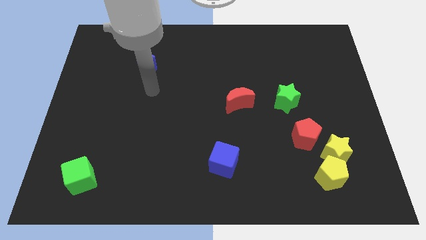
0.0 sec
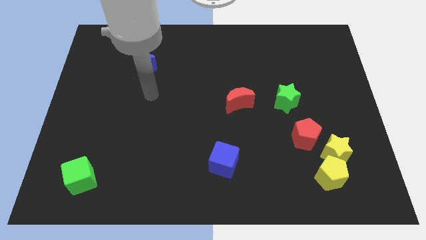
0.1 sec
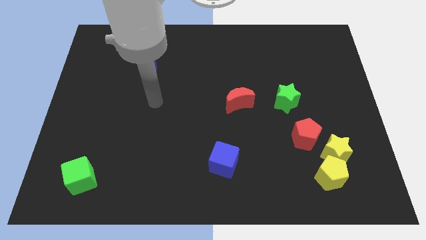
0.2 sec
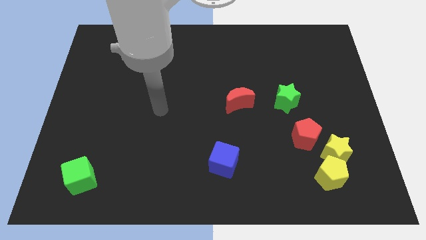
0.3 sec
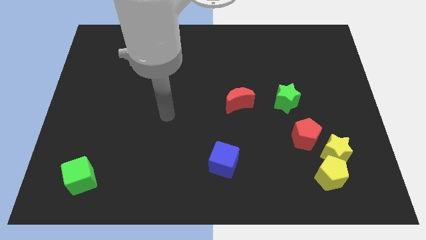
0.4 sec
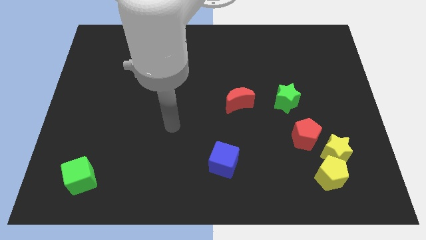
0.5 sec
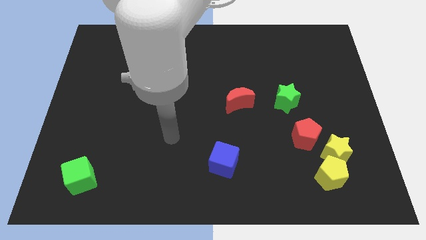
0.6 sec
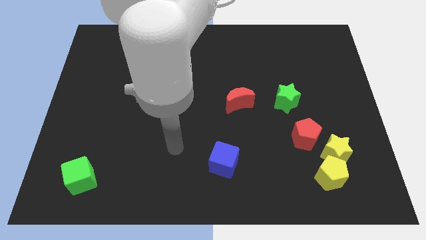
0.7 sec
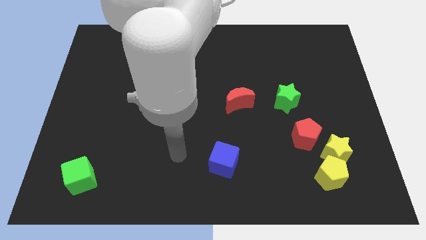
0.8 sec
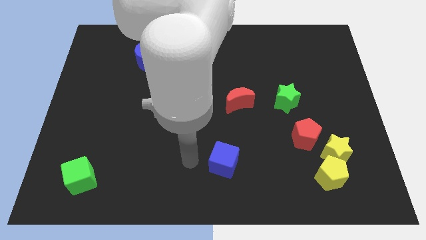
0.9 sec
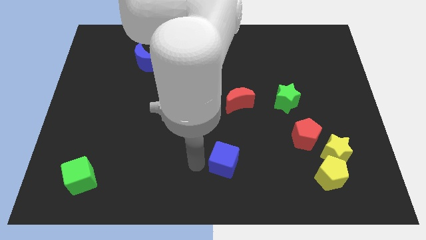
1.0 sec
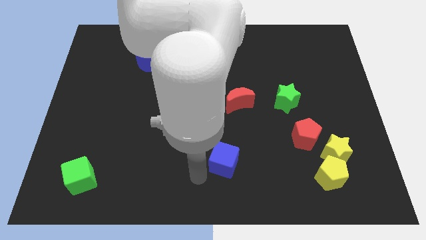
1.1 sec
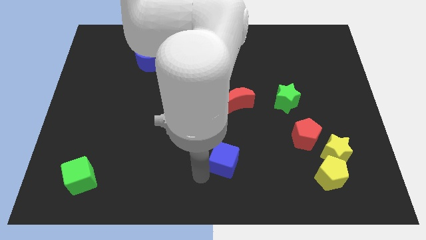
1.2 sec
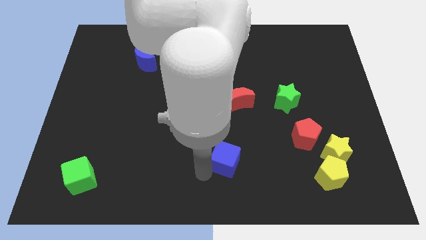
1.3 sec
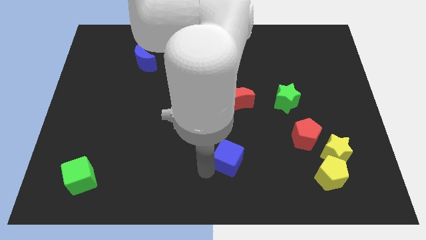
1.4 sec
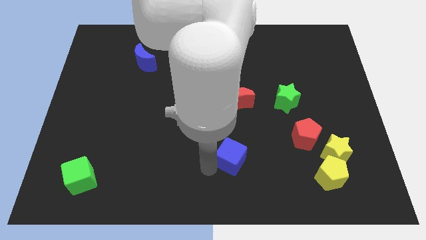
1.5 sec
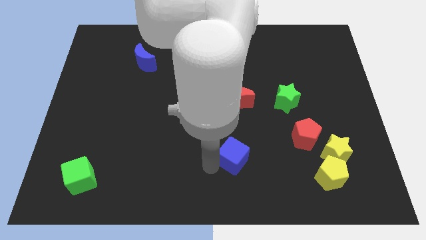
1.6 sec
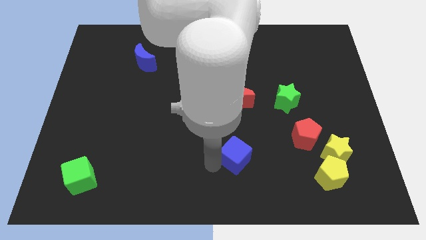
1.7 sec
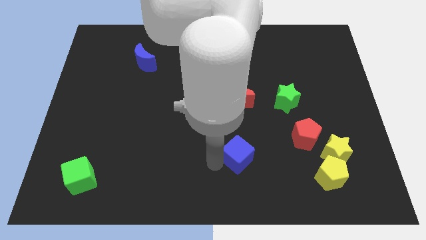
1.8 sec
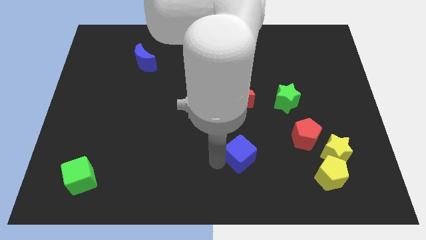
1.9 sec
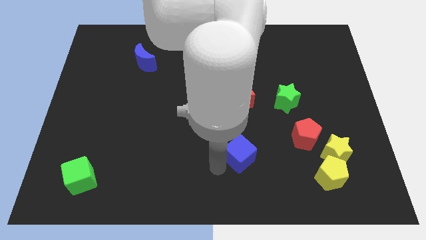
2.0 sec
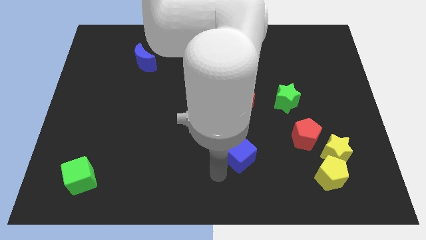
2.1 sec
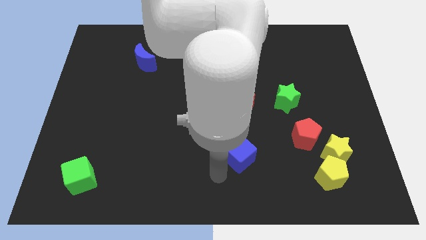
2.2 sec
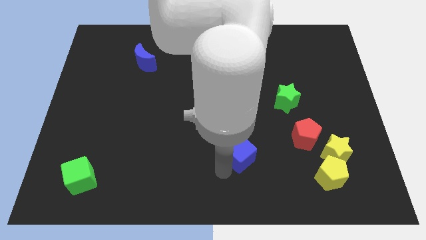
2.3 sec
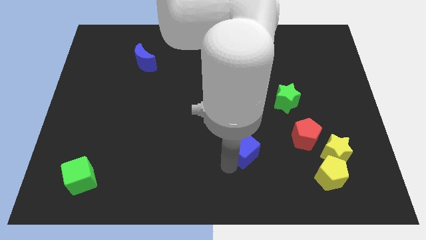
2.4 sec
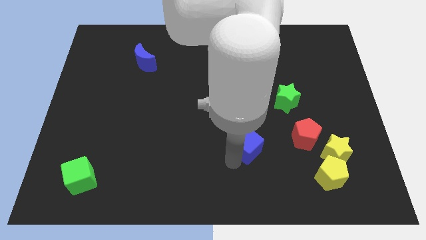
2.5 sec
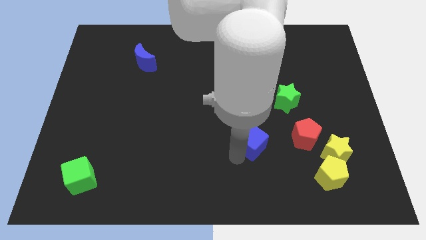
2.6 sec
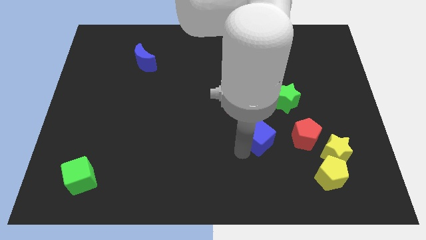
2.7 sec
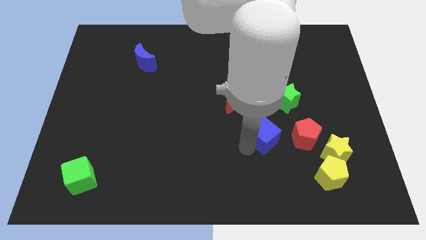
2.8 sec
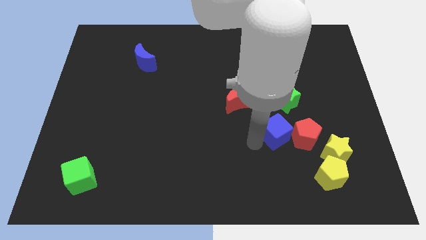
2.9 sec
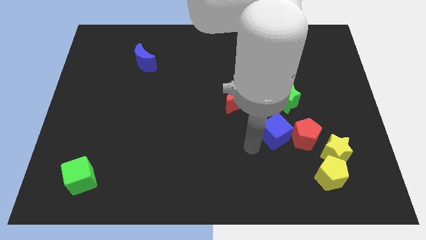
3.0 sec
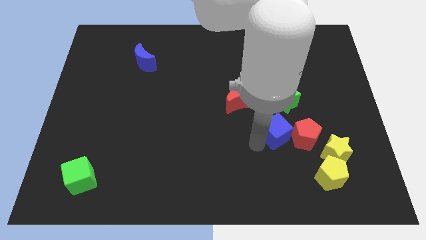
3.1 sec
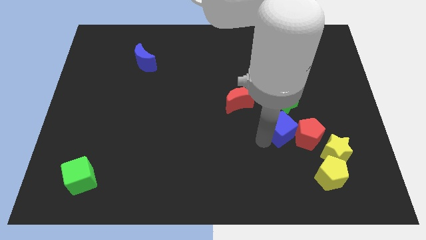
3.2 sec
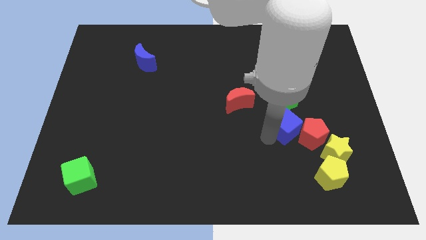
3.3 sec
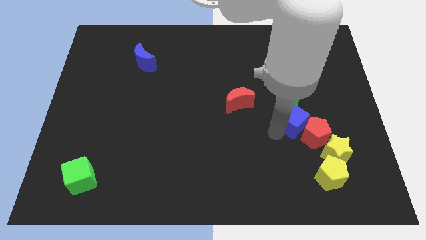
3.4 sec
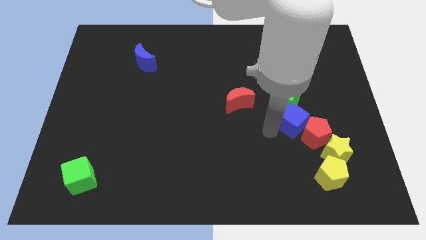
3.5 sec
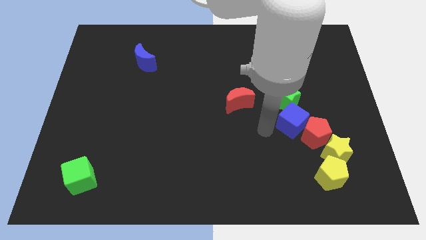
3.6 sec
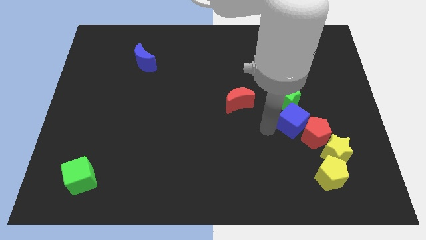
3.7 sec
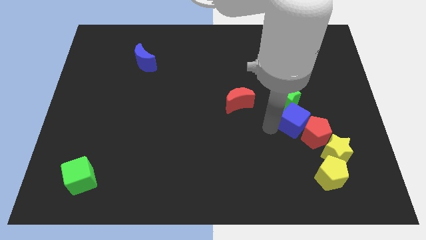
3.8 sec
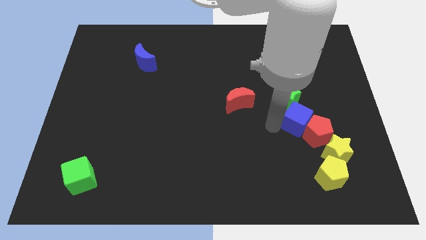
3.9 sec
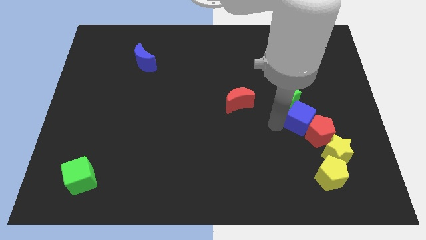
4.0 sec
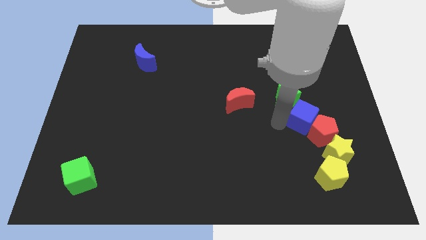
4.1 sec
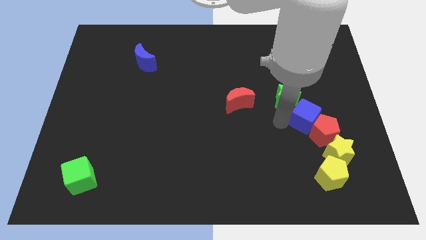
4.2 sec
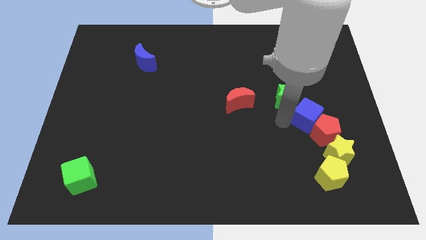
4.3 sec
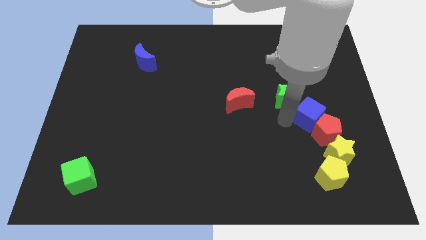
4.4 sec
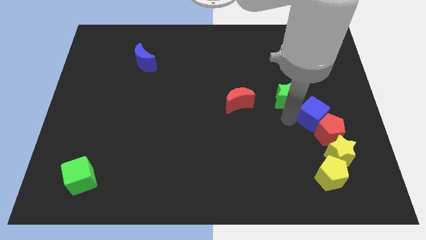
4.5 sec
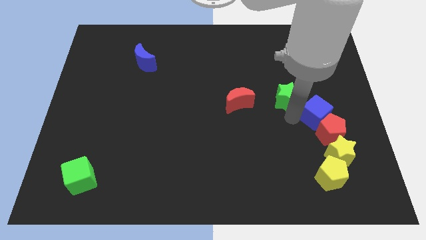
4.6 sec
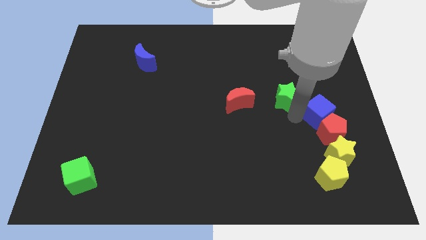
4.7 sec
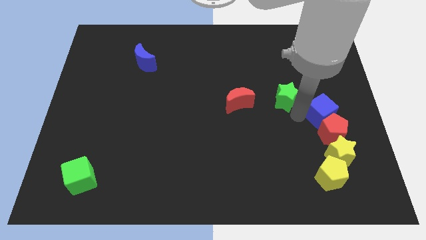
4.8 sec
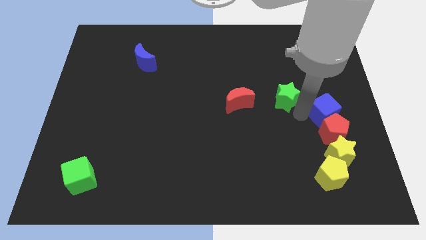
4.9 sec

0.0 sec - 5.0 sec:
push the blue cube to the right side

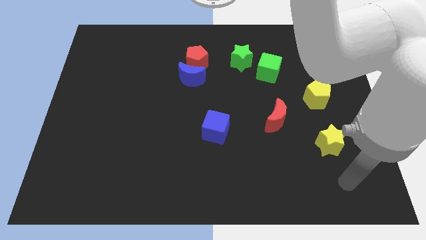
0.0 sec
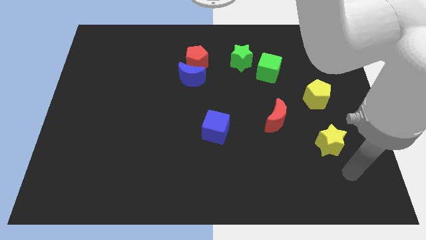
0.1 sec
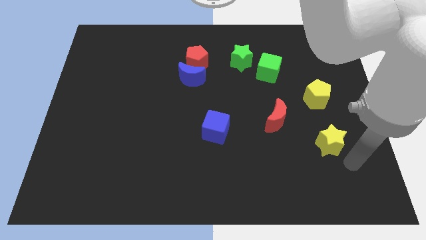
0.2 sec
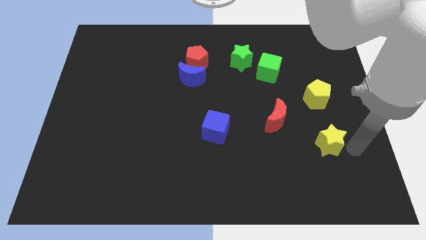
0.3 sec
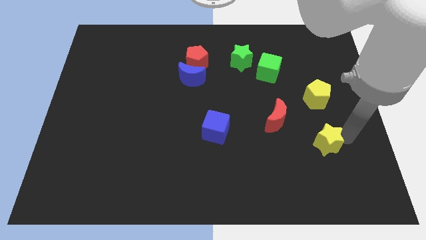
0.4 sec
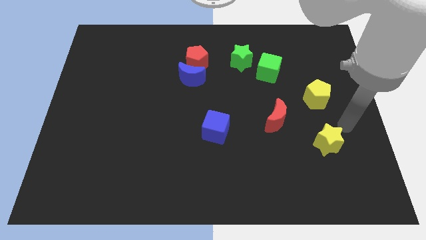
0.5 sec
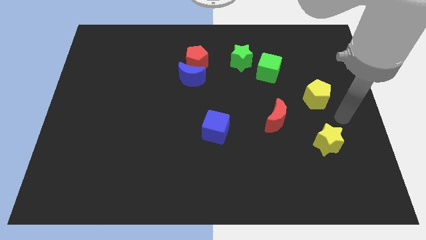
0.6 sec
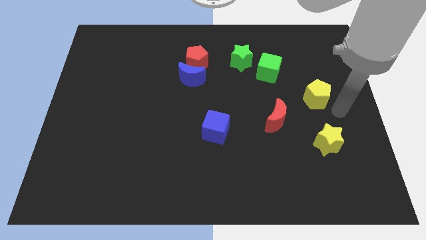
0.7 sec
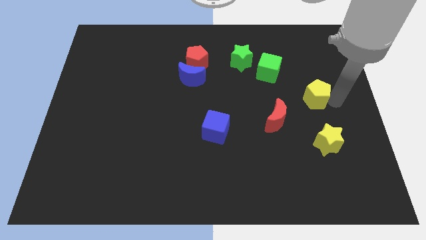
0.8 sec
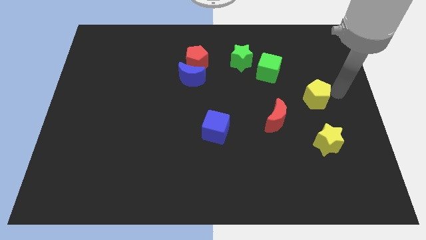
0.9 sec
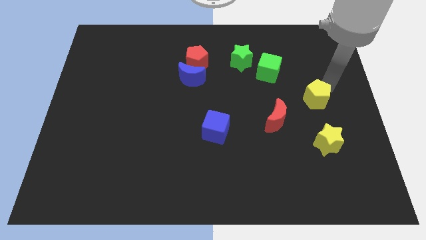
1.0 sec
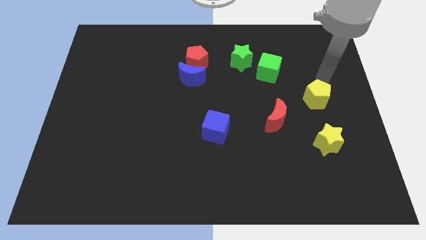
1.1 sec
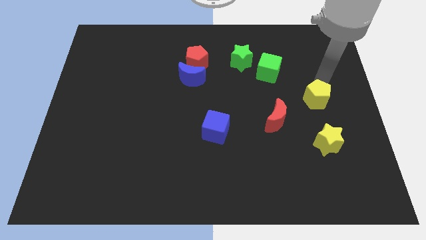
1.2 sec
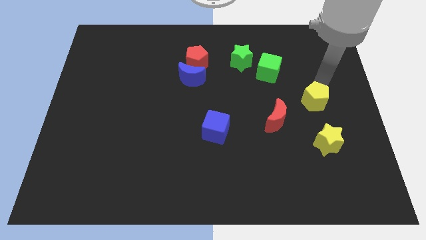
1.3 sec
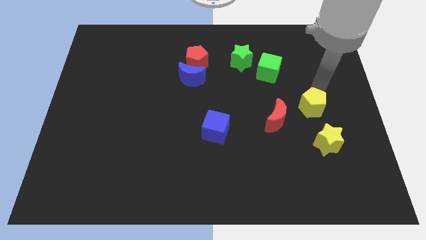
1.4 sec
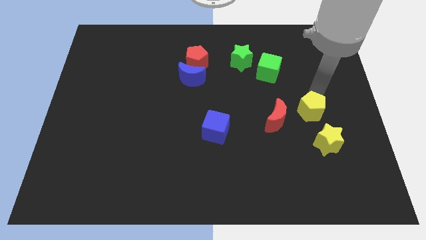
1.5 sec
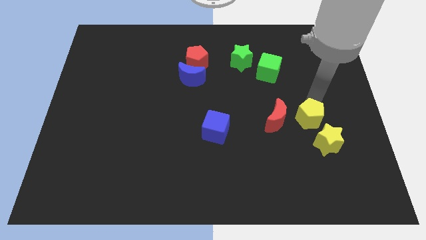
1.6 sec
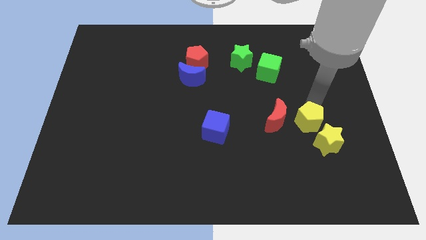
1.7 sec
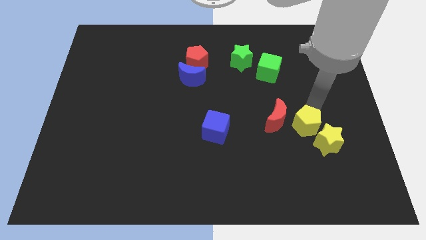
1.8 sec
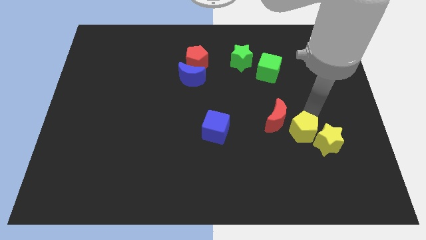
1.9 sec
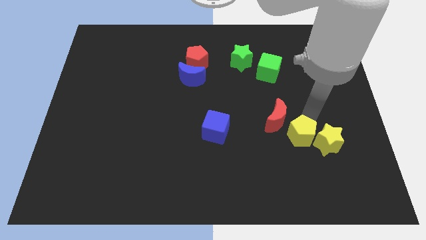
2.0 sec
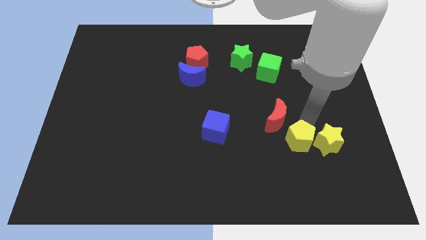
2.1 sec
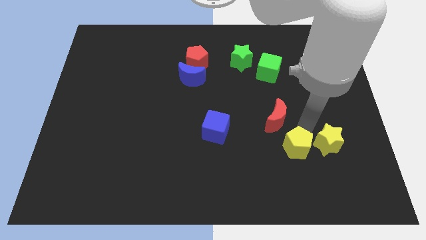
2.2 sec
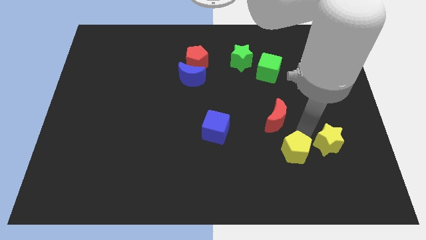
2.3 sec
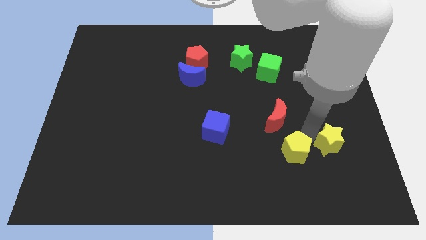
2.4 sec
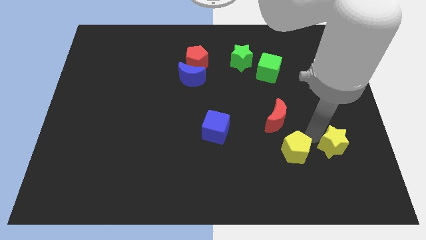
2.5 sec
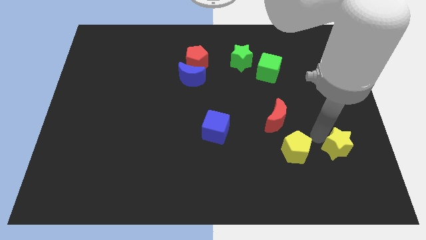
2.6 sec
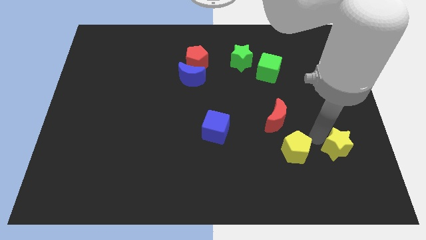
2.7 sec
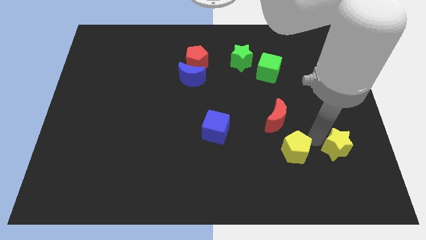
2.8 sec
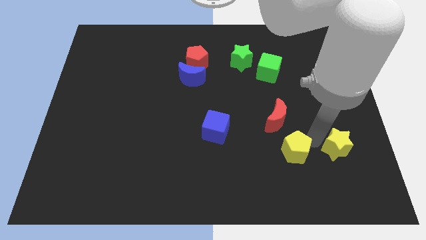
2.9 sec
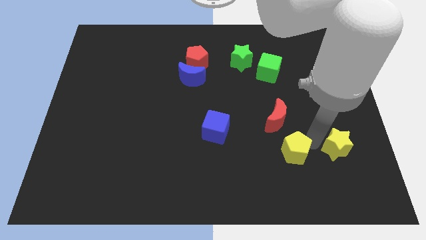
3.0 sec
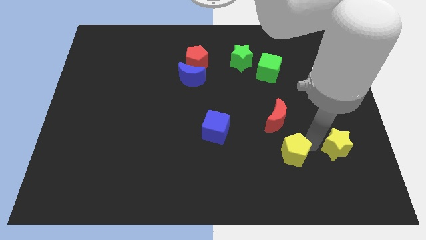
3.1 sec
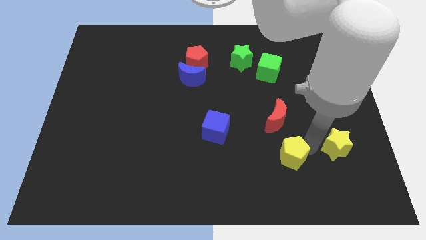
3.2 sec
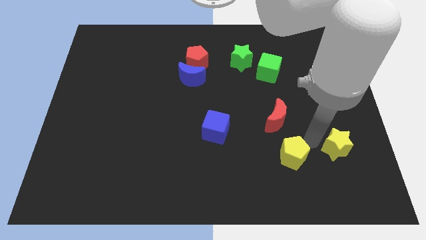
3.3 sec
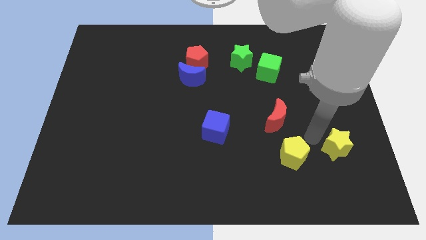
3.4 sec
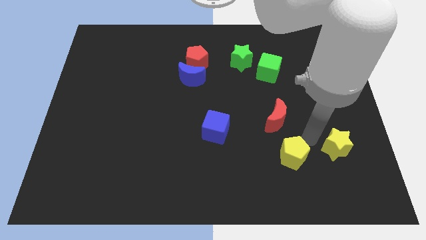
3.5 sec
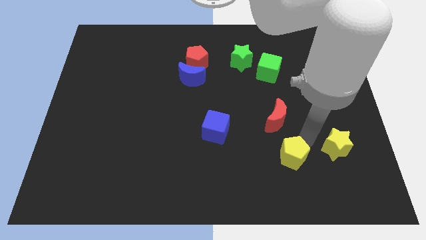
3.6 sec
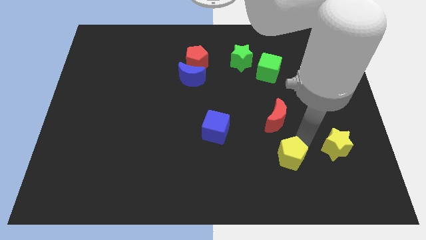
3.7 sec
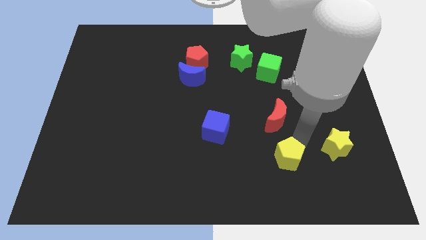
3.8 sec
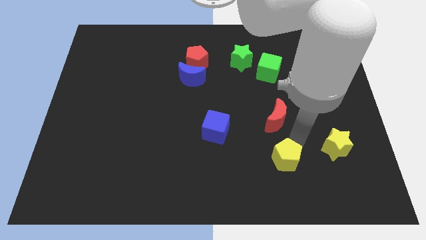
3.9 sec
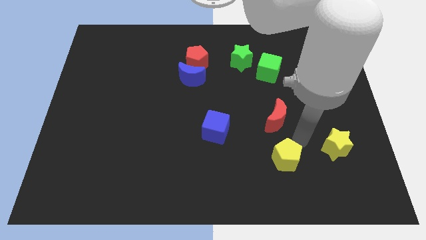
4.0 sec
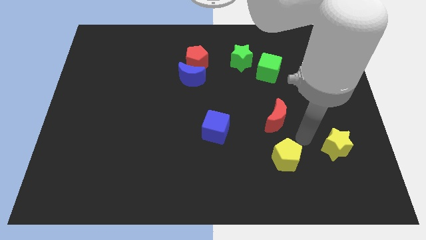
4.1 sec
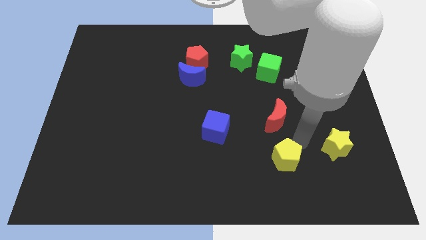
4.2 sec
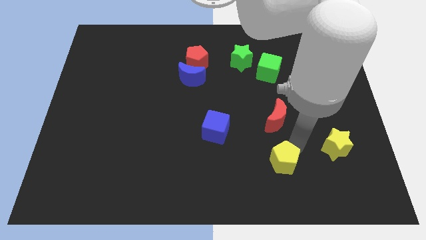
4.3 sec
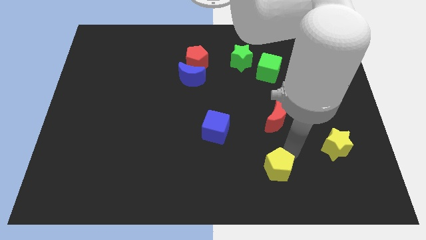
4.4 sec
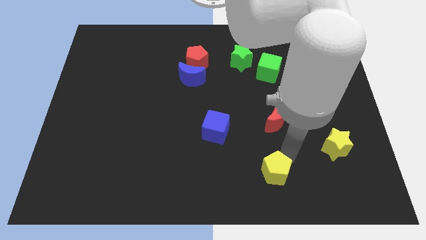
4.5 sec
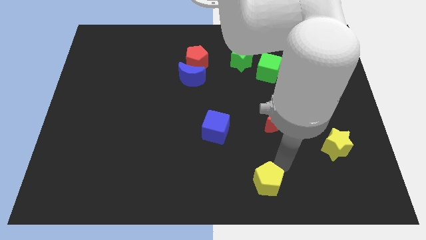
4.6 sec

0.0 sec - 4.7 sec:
push the yellow pentagon to the bottom side
